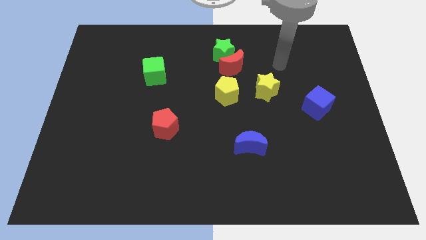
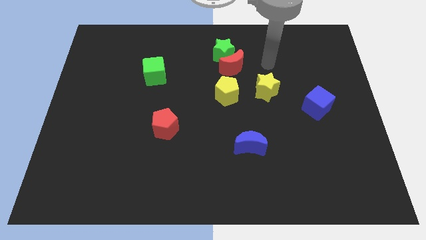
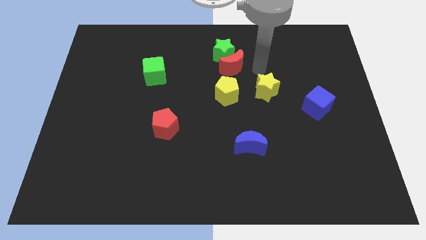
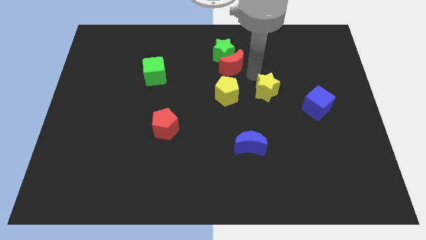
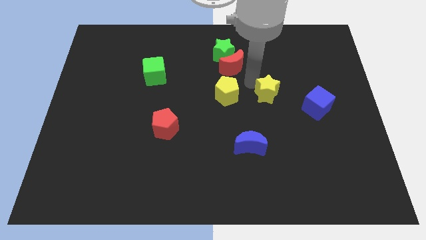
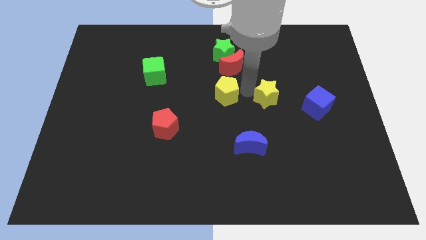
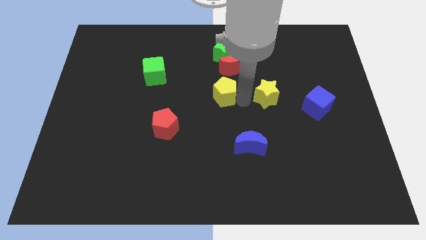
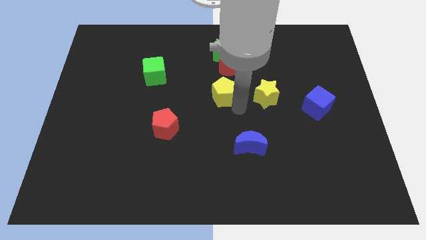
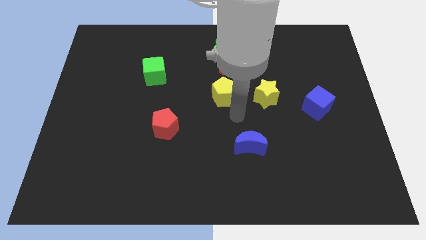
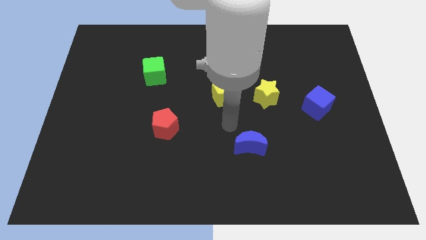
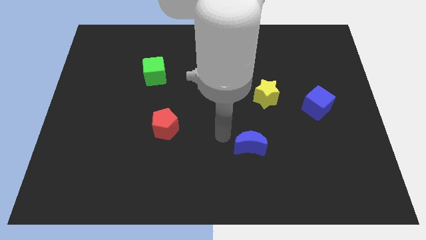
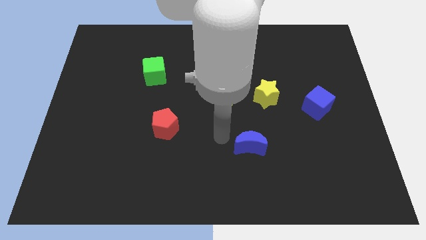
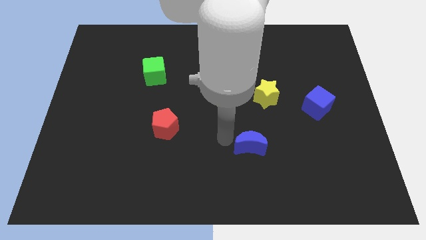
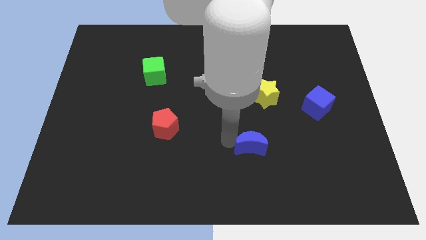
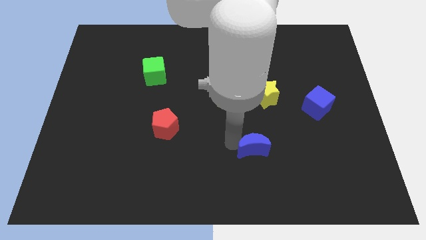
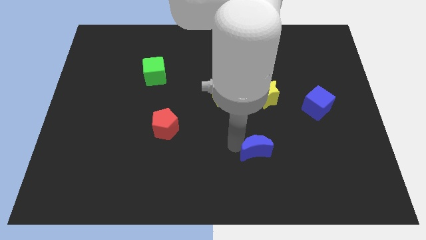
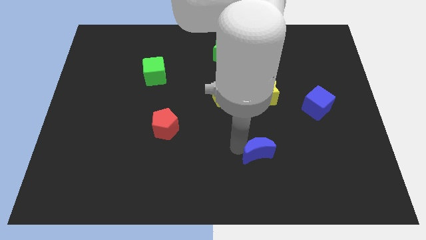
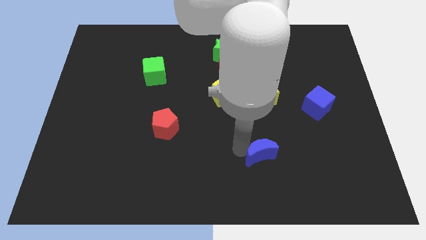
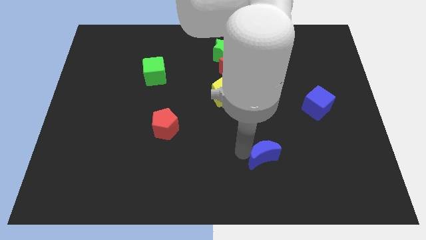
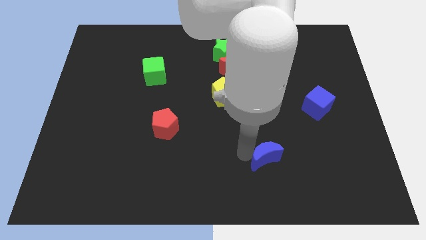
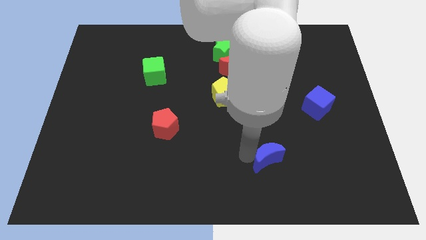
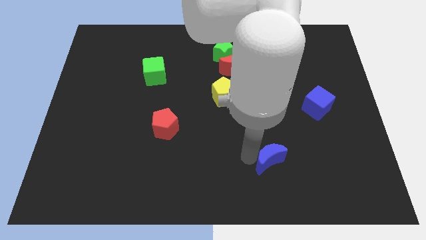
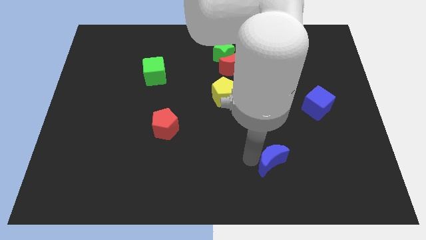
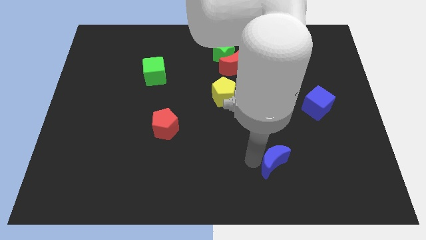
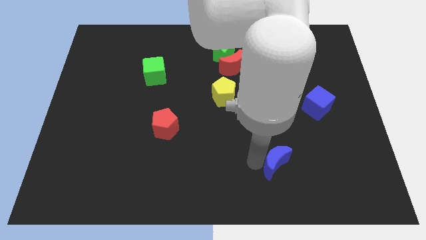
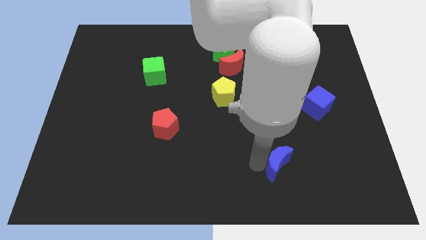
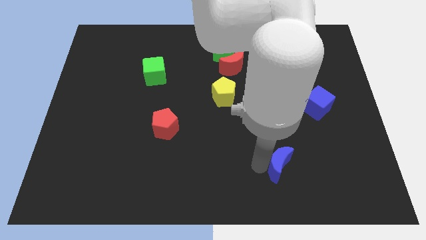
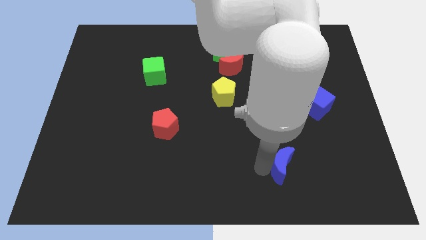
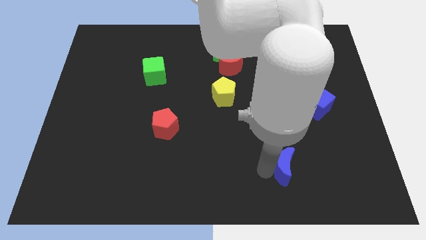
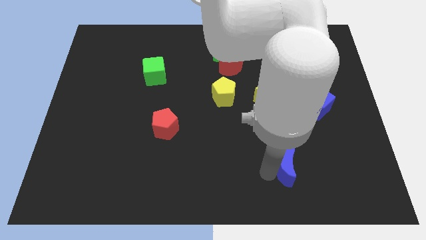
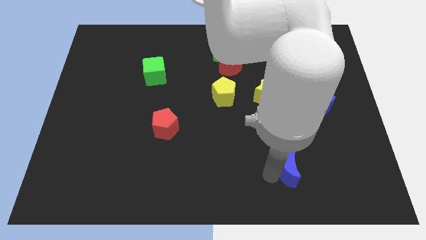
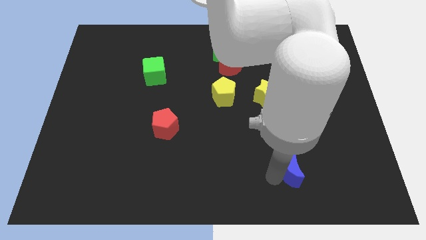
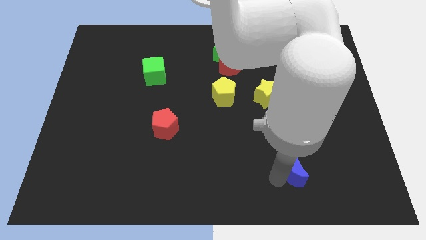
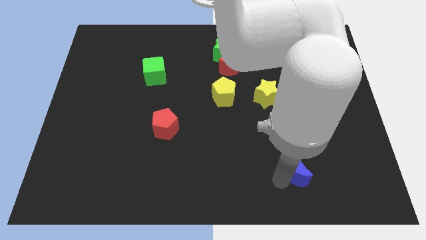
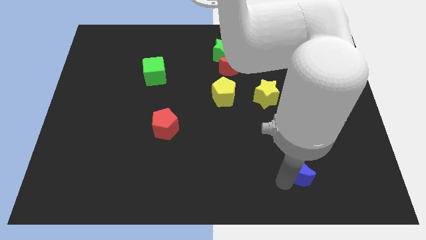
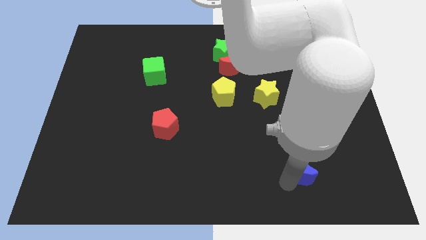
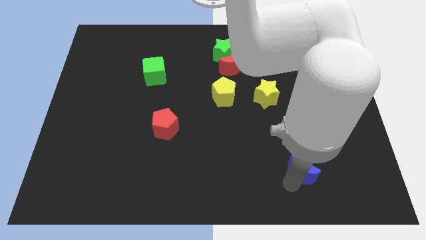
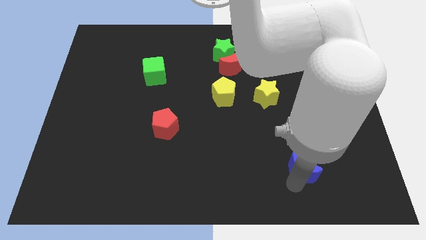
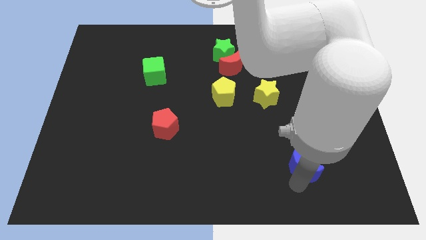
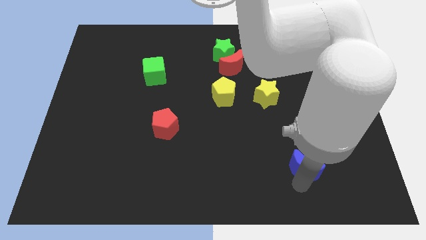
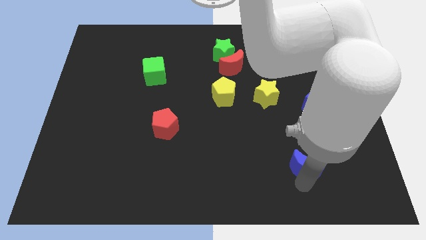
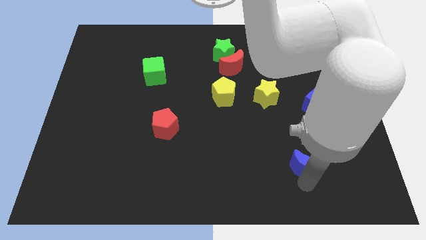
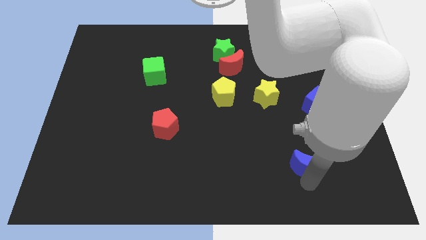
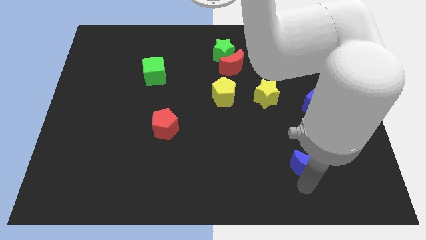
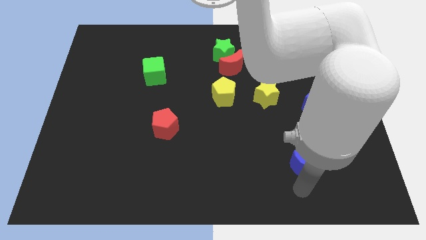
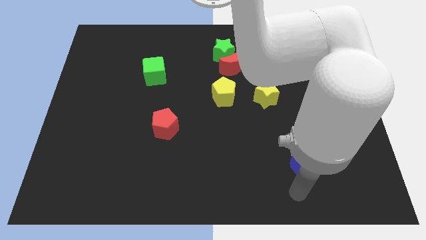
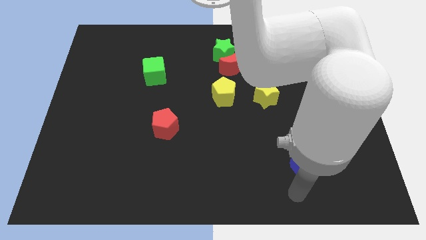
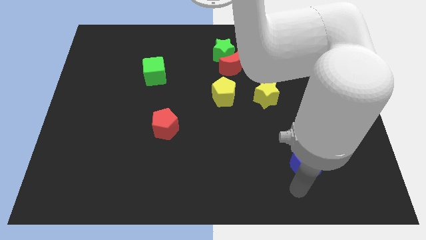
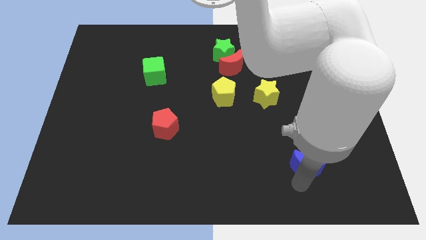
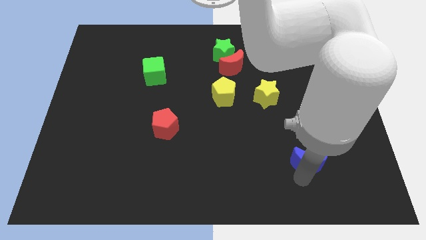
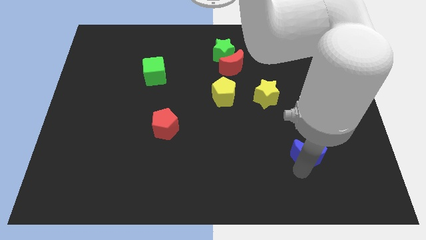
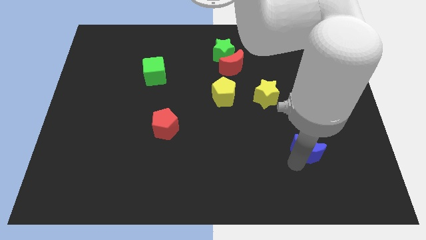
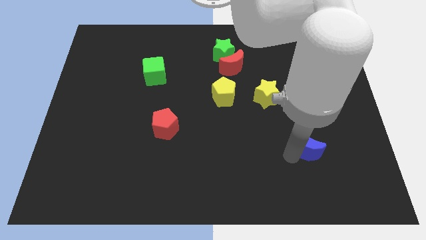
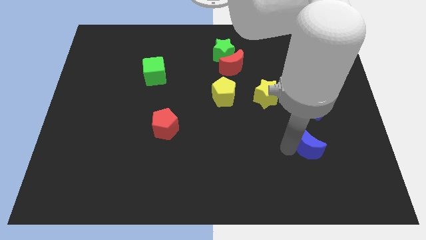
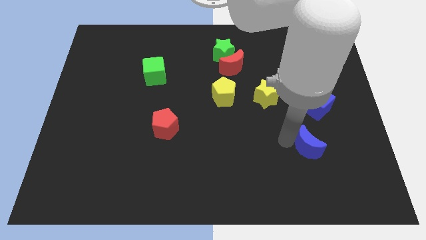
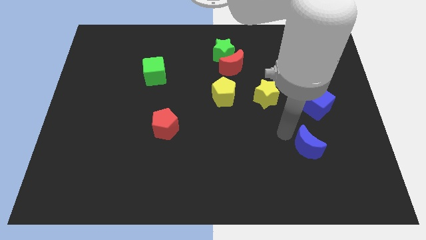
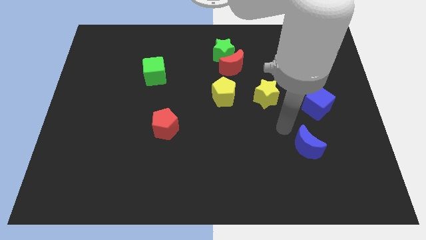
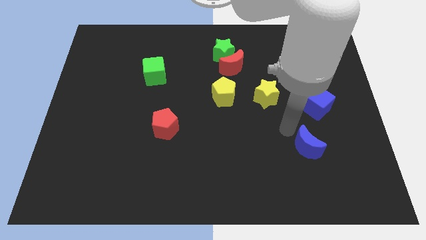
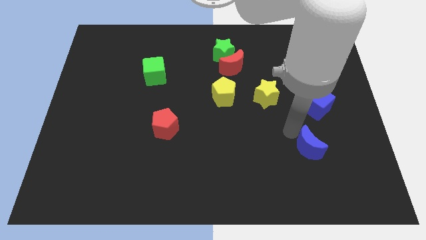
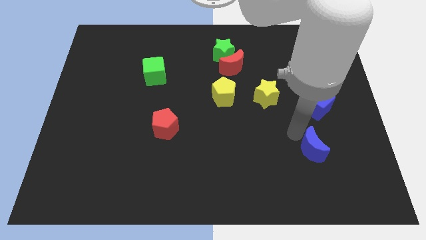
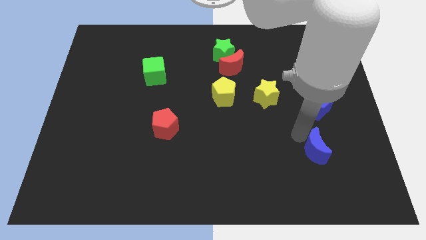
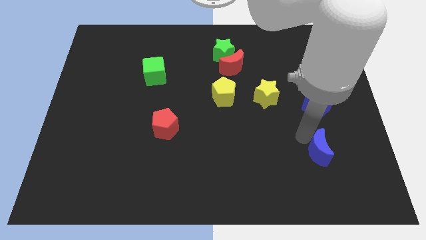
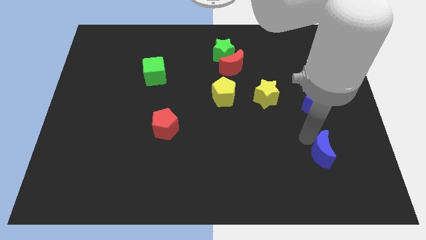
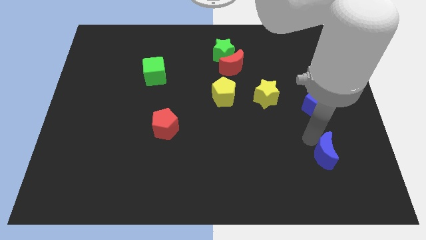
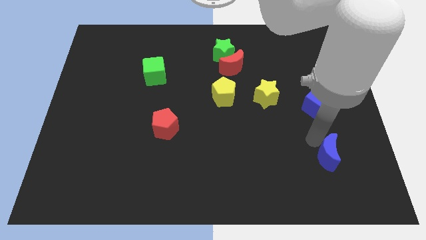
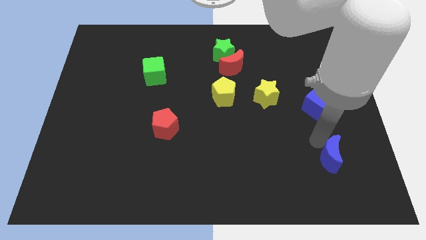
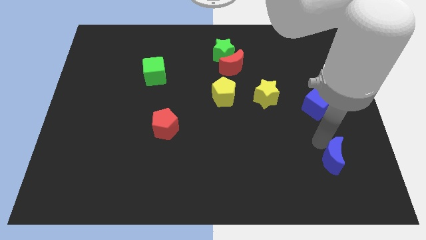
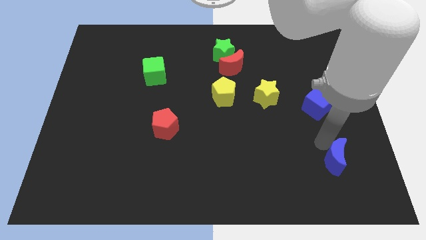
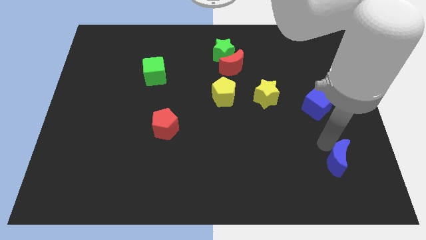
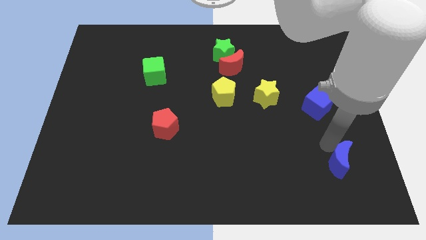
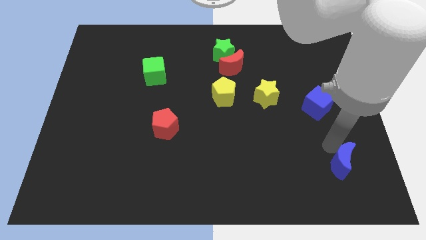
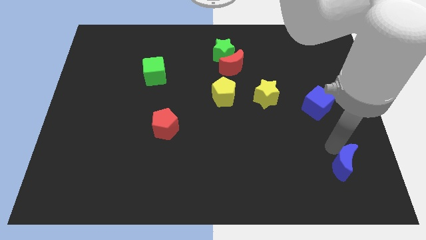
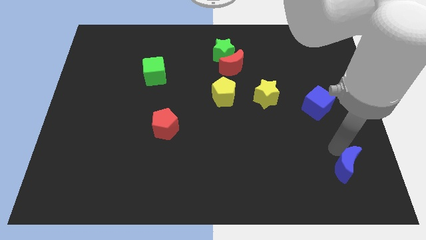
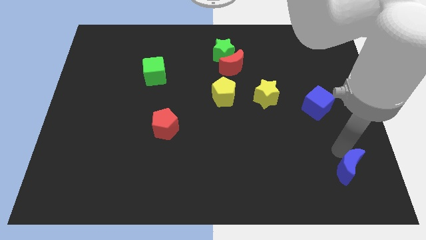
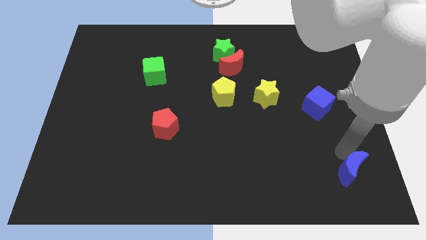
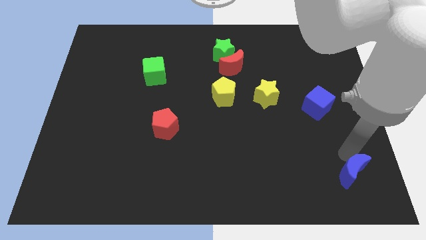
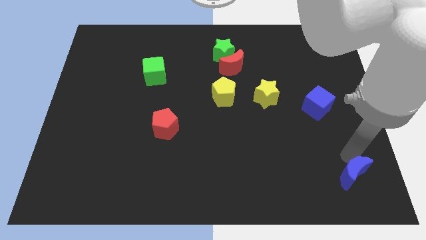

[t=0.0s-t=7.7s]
slide the blue moon to the bottom right corner
